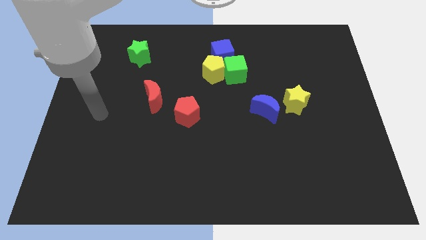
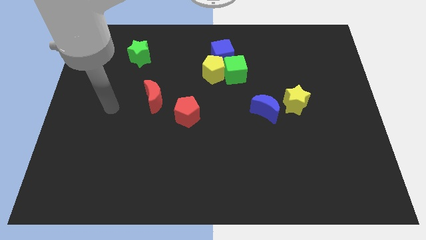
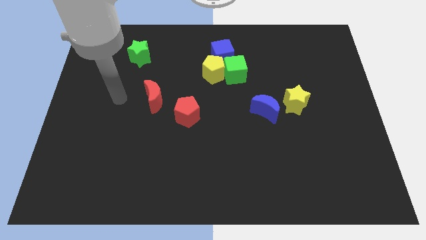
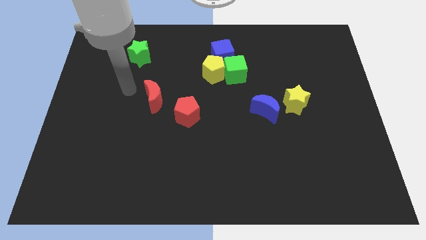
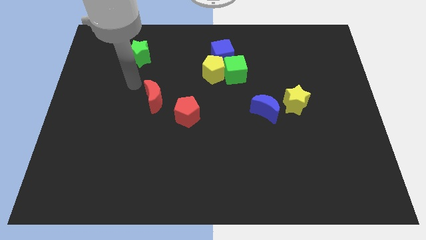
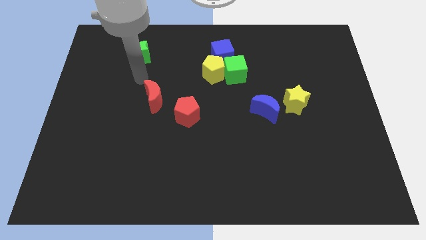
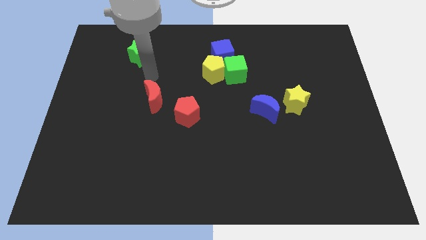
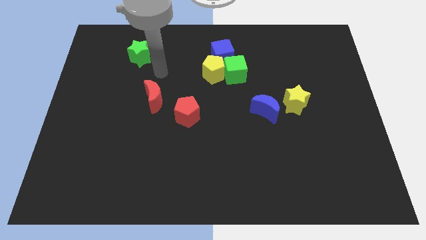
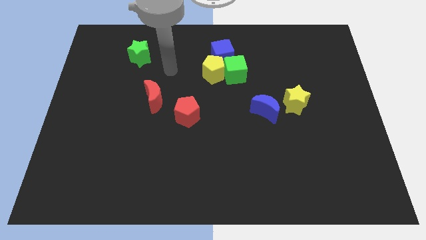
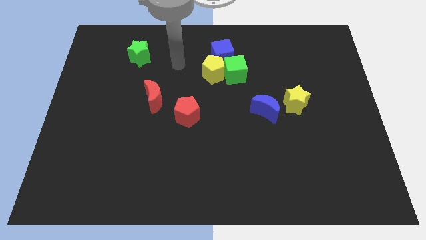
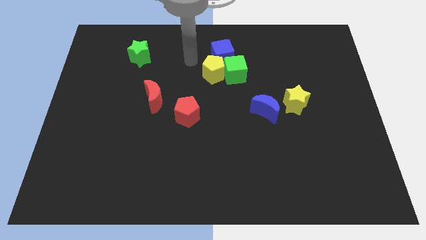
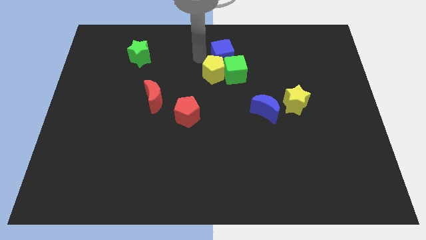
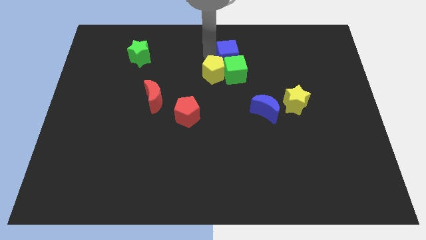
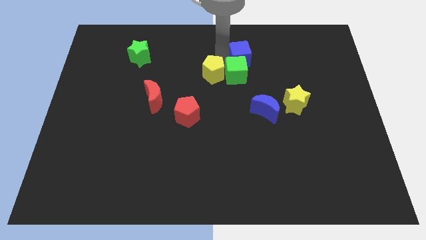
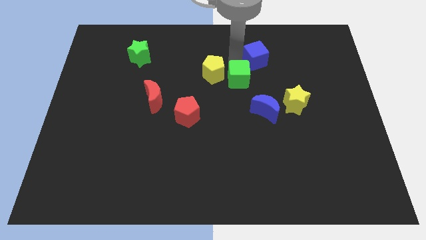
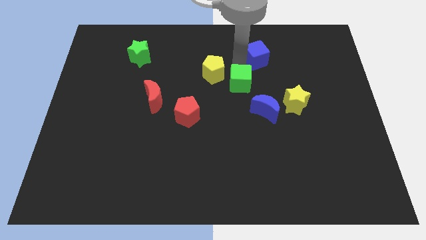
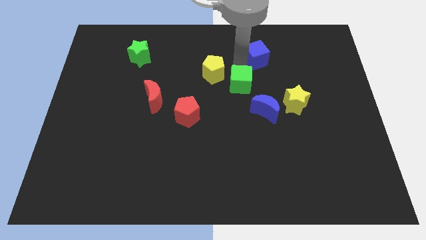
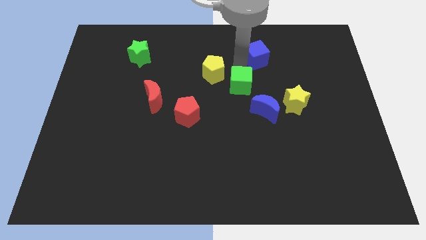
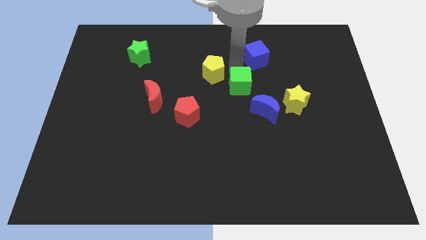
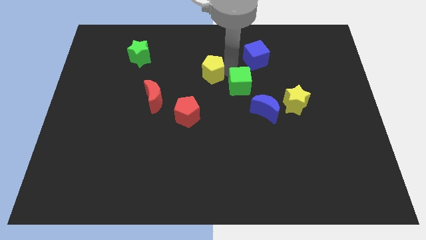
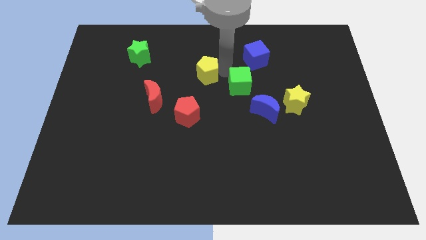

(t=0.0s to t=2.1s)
separate the yellow pentagon from the green cube and blue cube

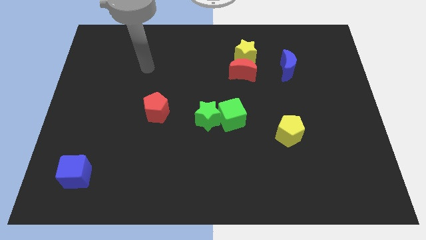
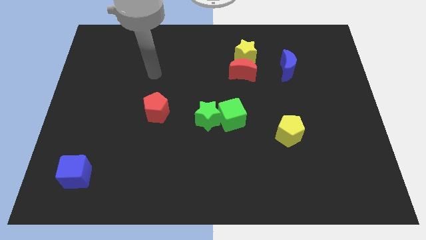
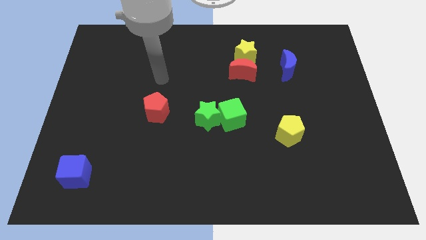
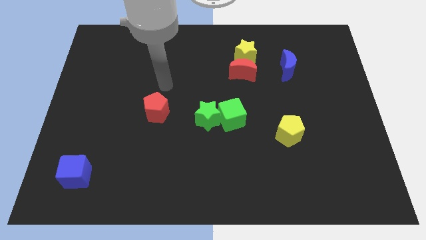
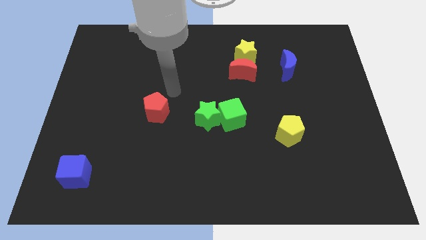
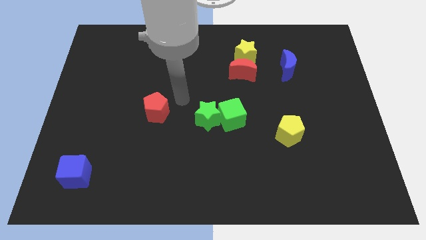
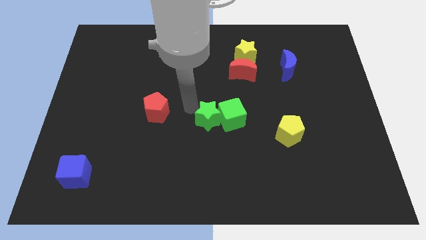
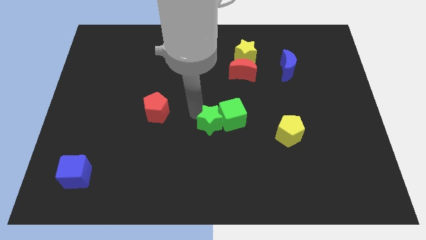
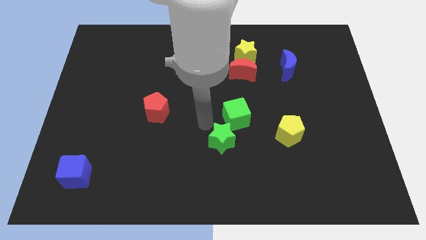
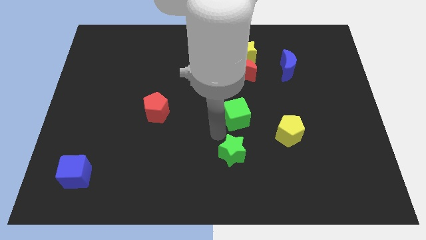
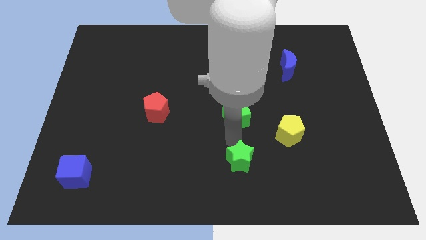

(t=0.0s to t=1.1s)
move the green cube away from the green star

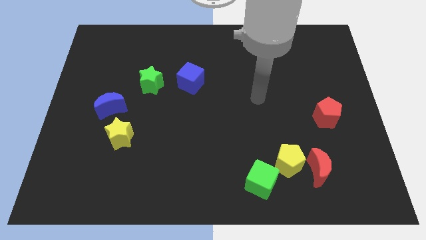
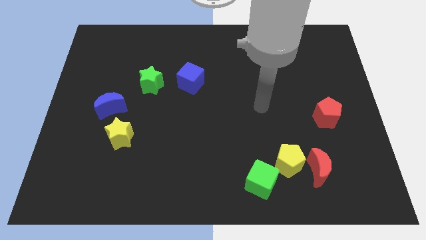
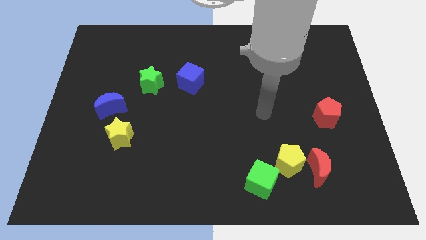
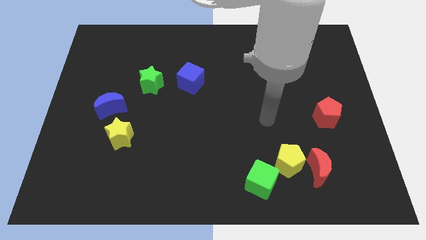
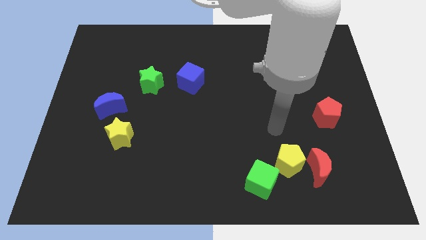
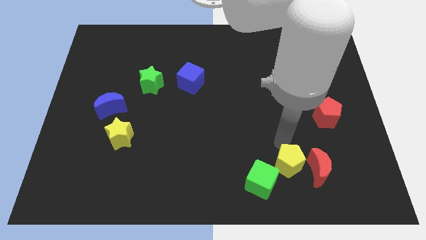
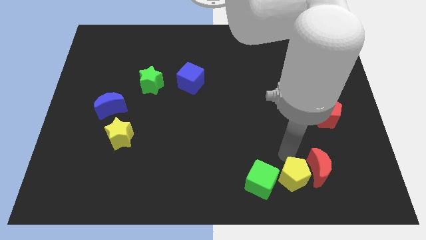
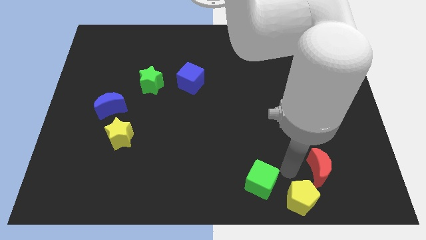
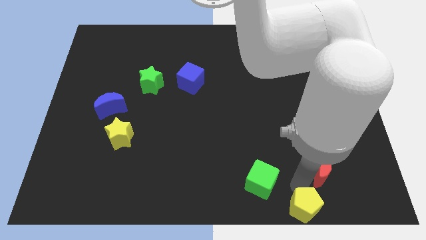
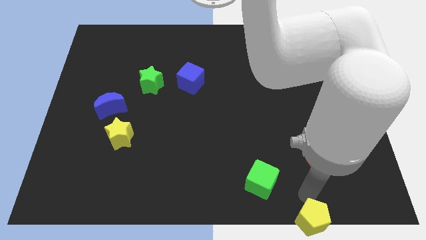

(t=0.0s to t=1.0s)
pull the red moon apart from the yellow pentagon

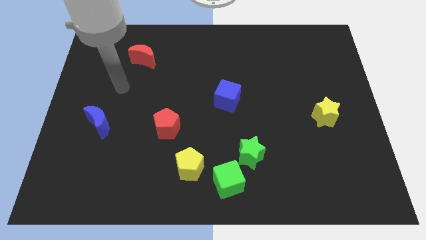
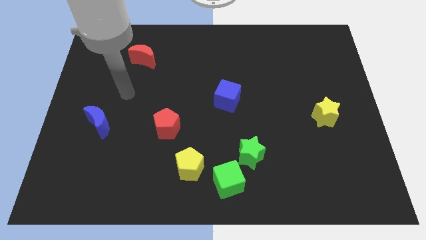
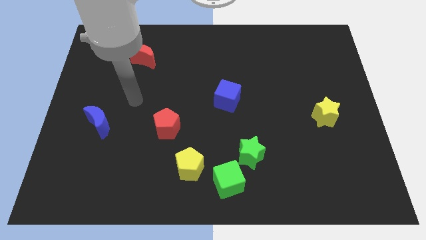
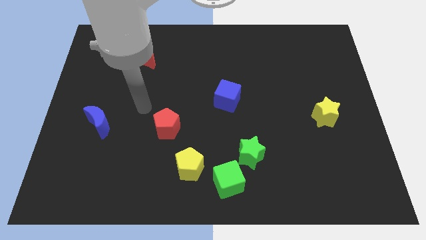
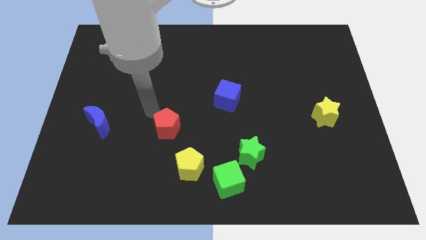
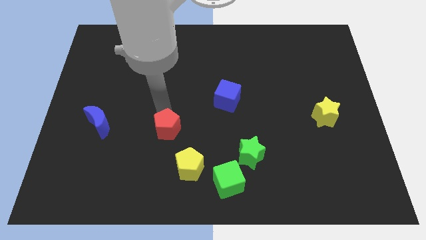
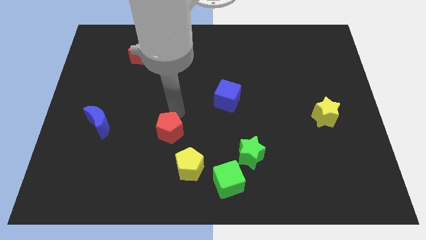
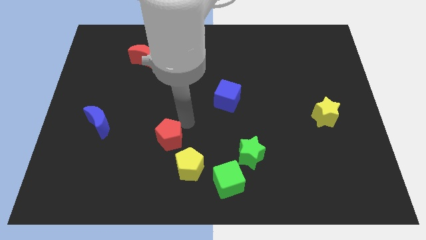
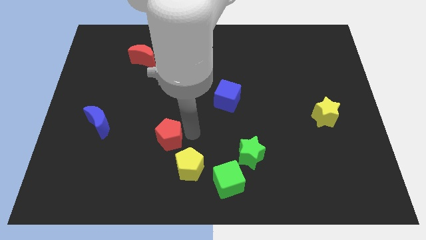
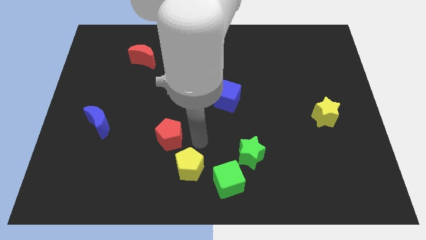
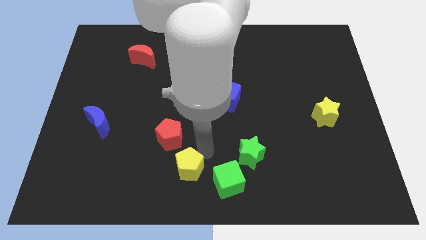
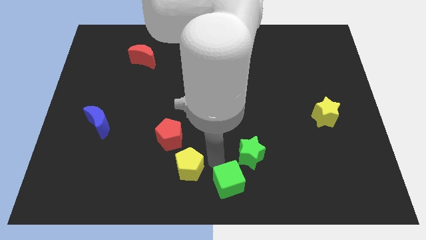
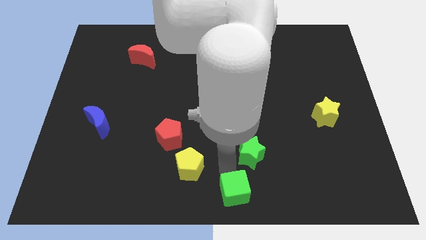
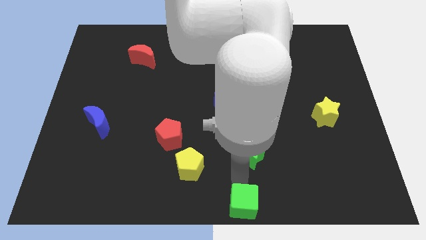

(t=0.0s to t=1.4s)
move the green star away from the green cube

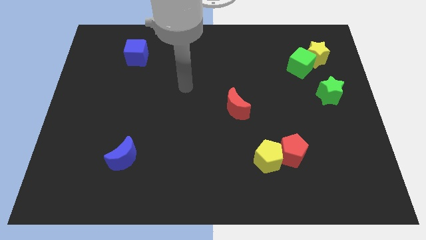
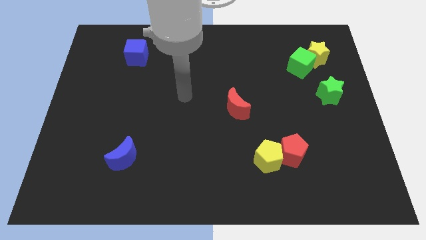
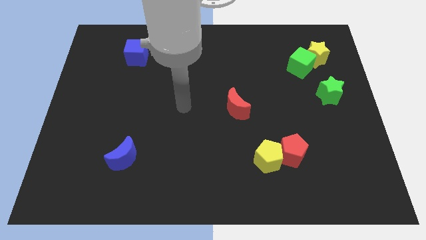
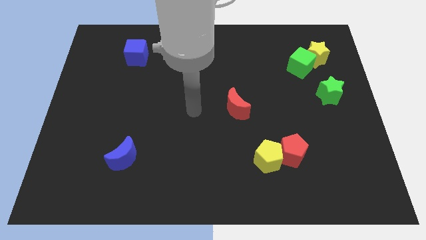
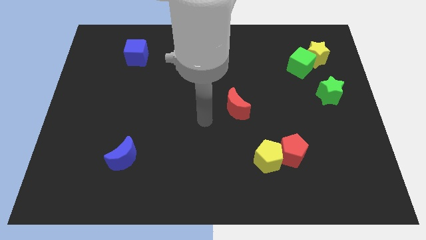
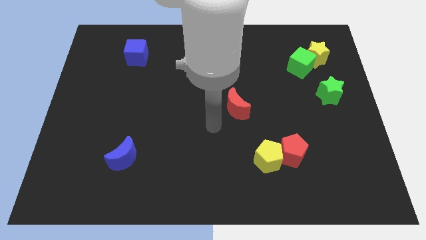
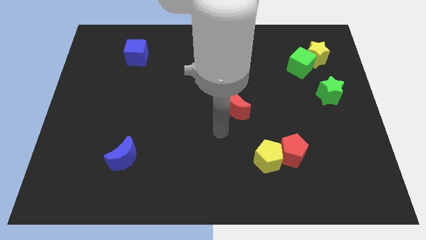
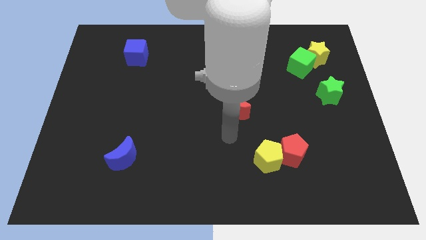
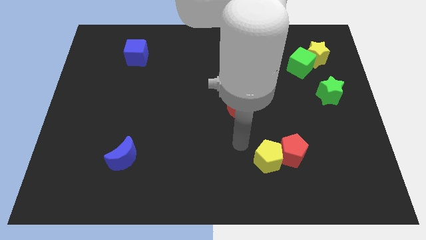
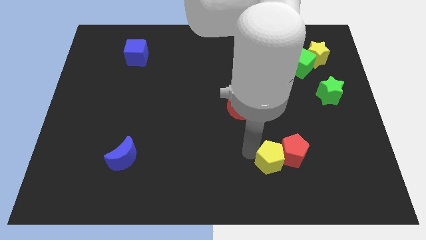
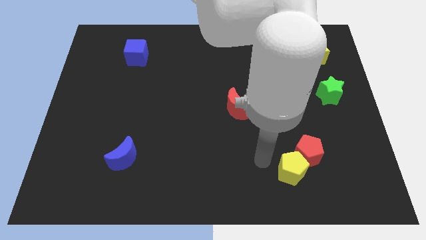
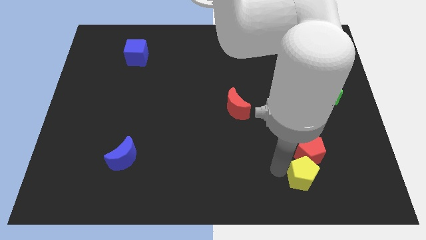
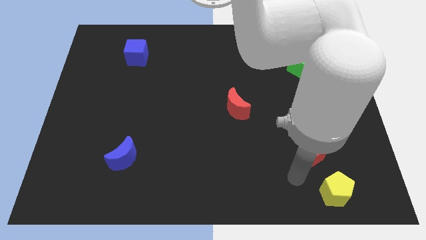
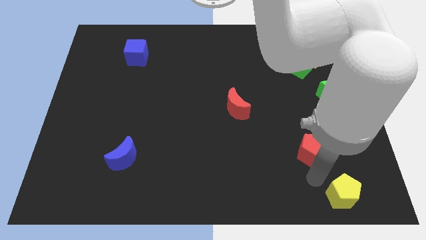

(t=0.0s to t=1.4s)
separate the red pentagon from the yellow pentagon

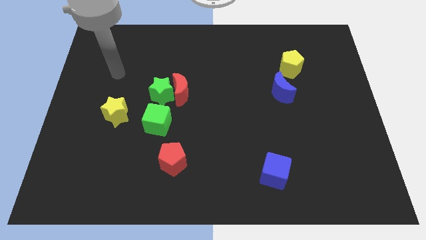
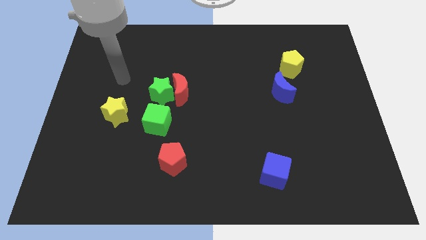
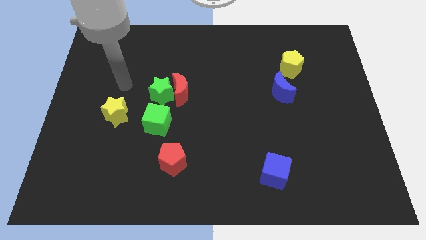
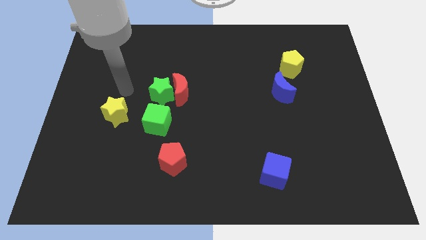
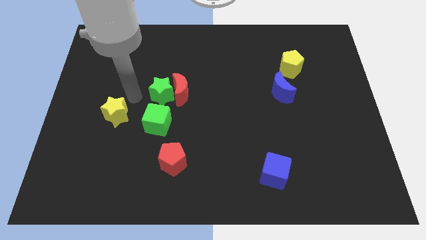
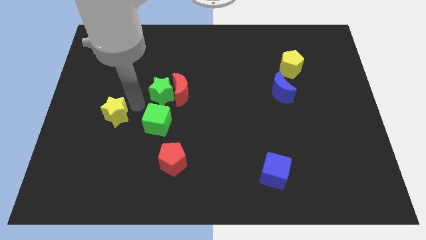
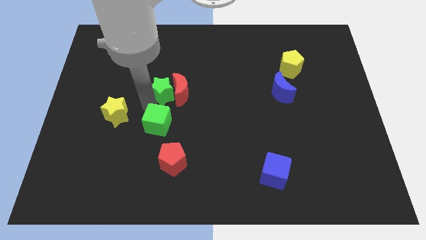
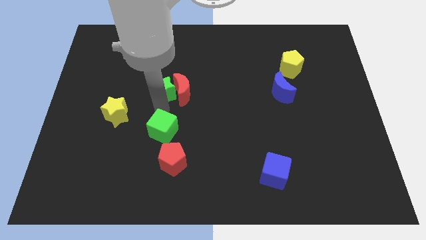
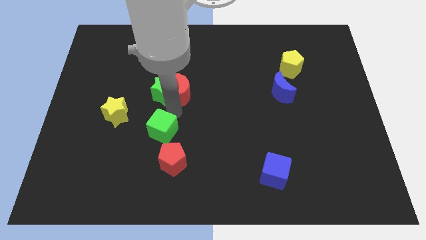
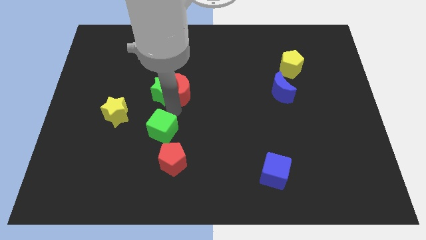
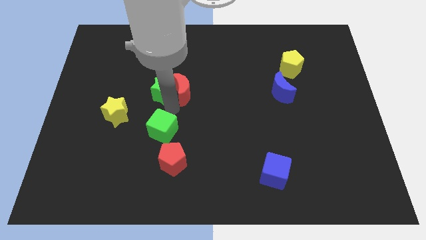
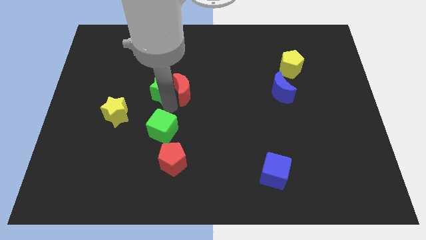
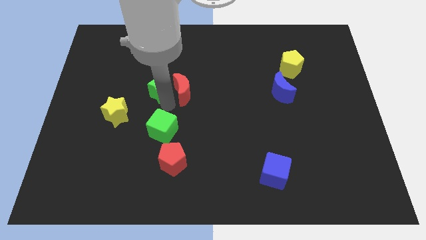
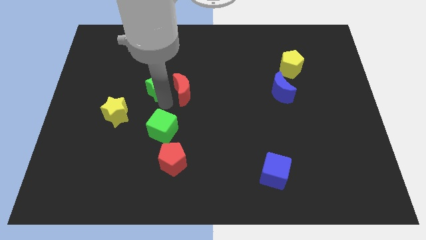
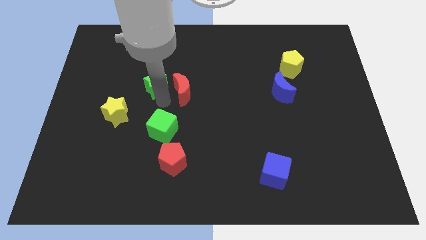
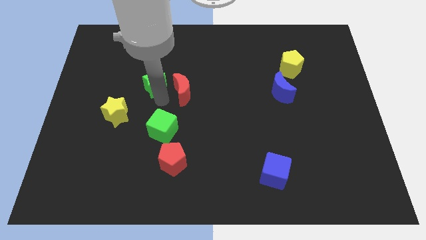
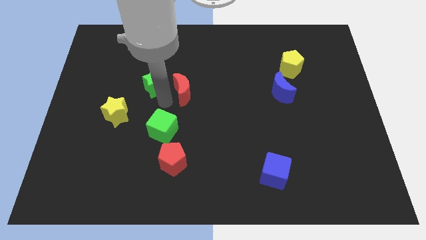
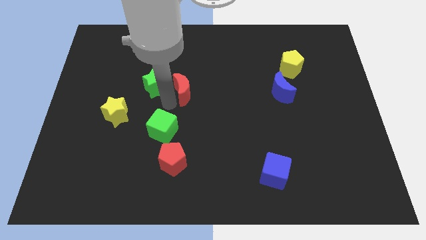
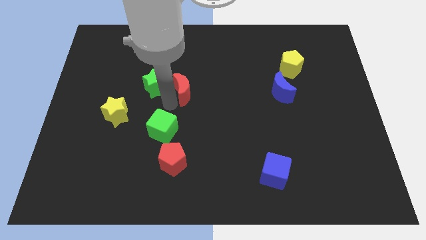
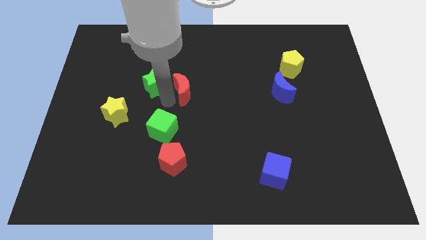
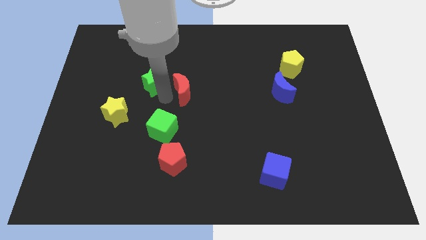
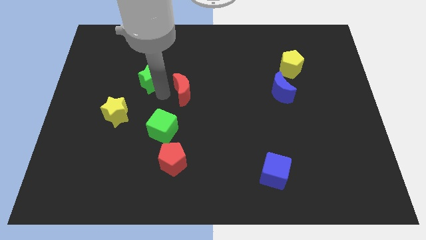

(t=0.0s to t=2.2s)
separate the green star from the red moon and green cube

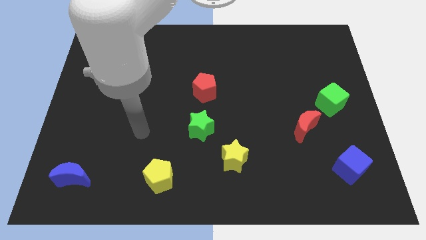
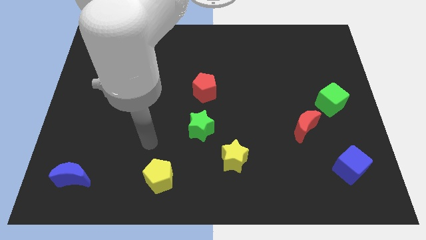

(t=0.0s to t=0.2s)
separate the green star from the yellow star
